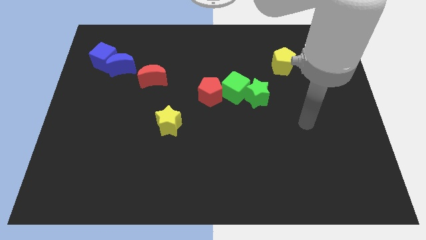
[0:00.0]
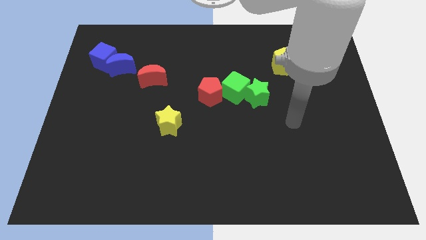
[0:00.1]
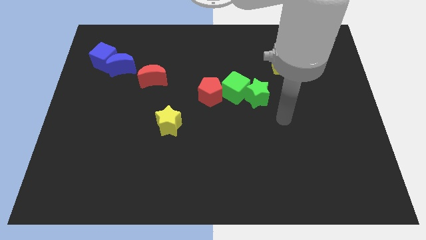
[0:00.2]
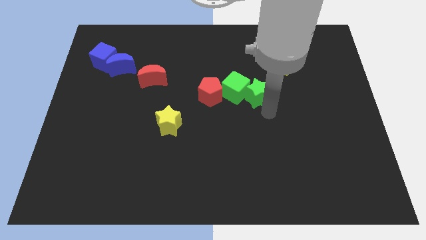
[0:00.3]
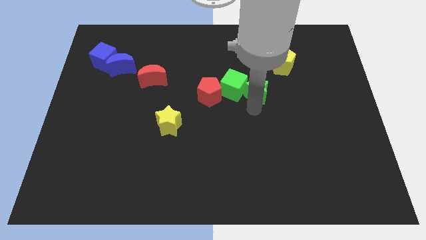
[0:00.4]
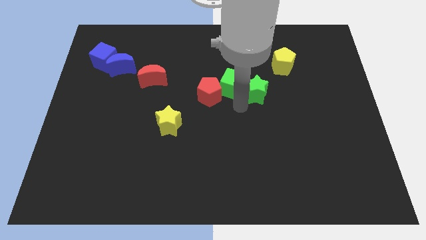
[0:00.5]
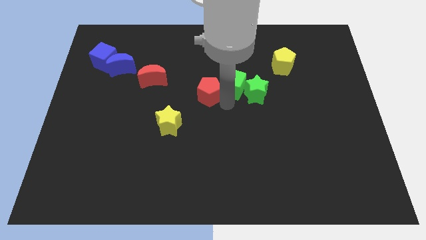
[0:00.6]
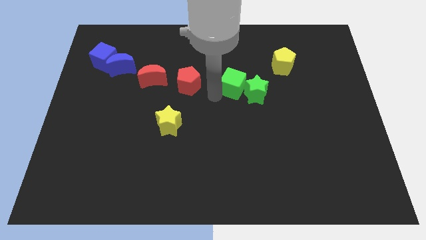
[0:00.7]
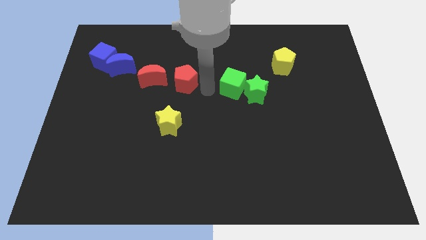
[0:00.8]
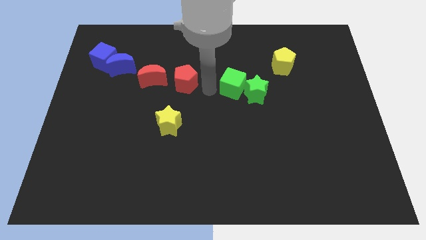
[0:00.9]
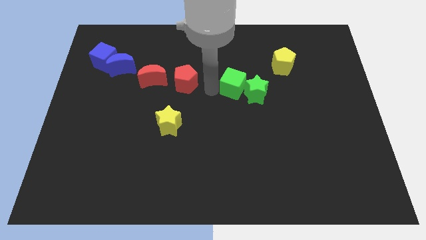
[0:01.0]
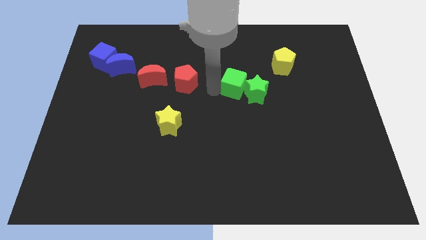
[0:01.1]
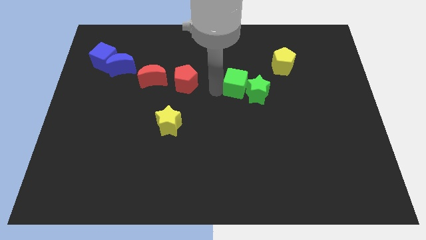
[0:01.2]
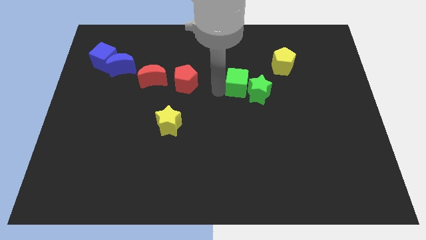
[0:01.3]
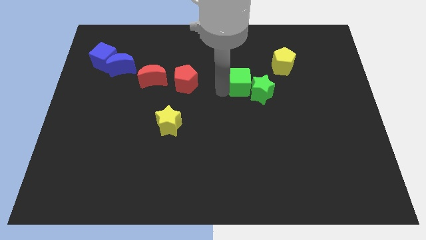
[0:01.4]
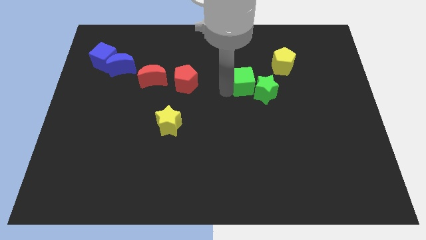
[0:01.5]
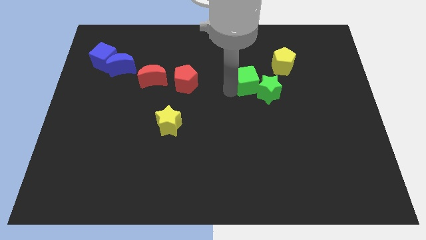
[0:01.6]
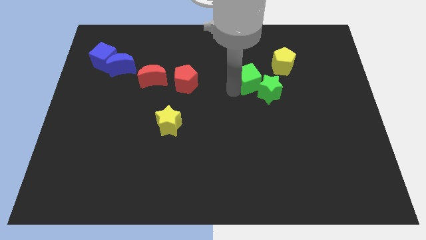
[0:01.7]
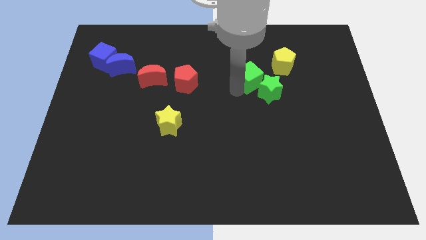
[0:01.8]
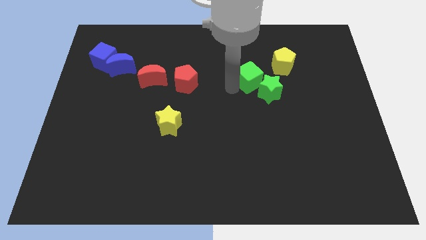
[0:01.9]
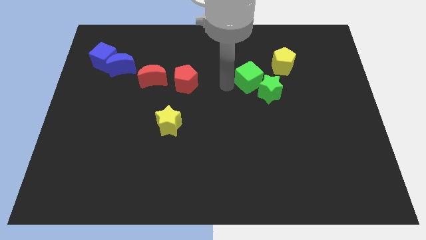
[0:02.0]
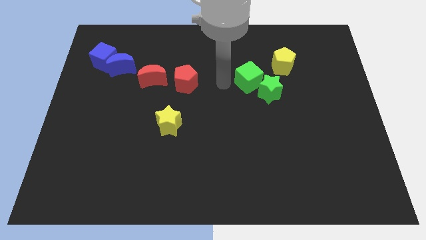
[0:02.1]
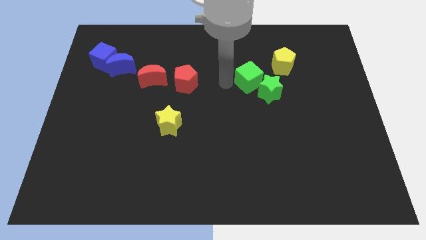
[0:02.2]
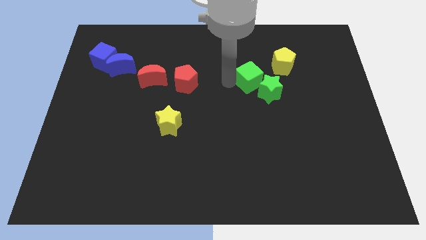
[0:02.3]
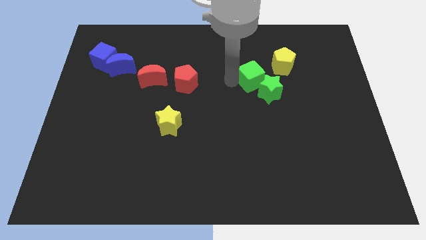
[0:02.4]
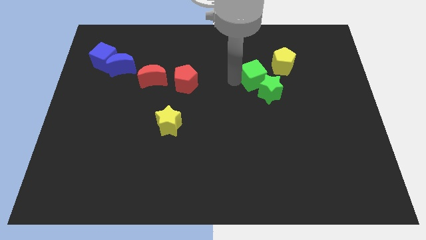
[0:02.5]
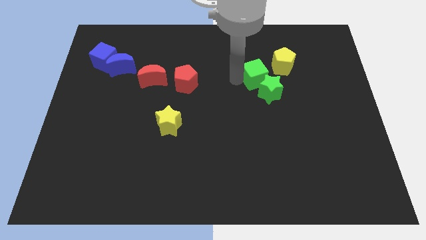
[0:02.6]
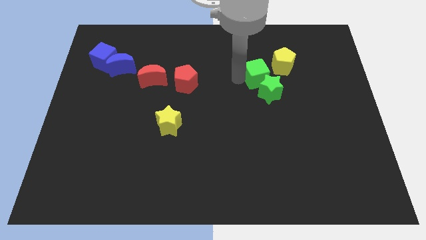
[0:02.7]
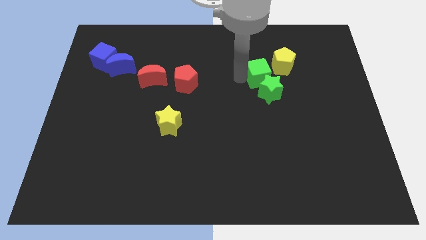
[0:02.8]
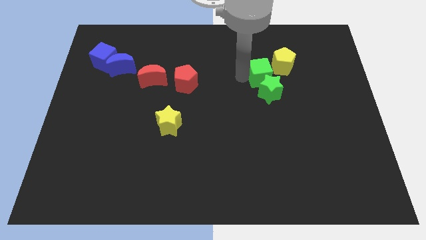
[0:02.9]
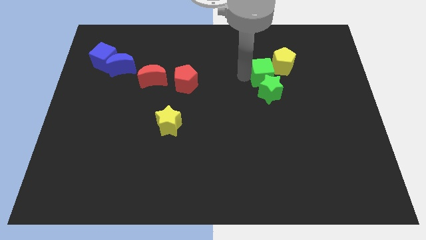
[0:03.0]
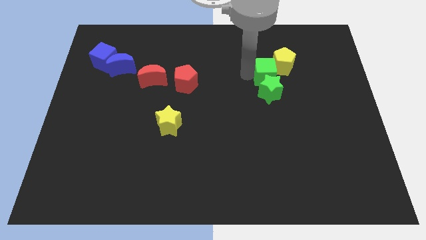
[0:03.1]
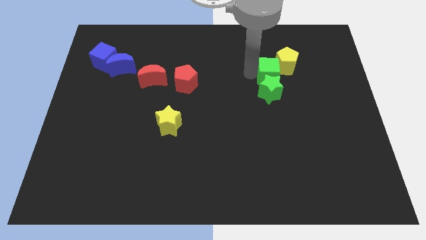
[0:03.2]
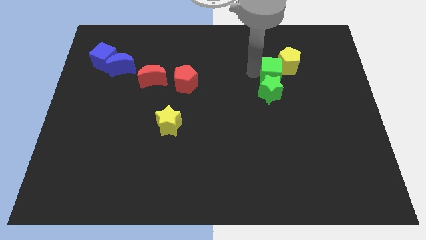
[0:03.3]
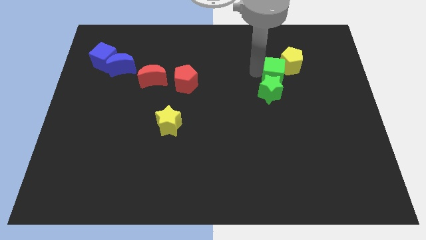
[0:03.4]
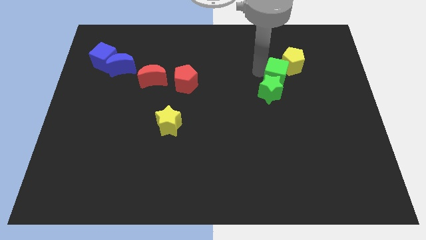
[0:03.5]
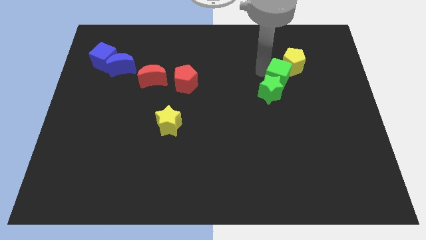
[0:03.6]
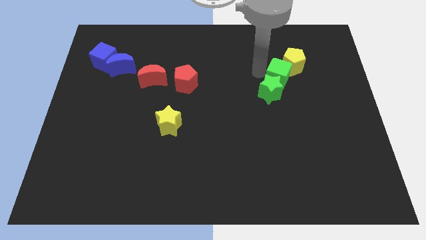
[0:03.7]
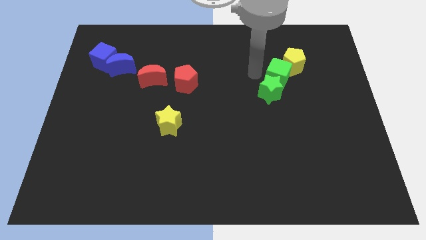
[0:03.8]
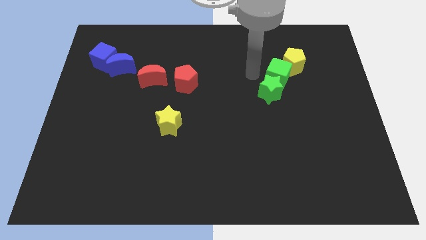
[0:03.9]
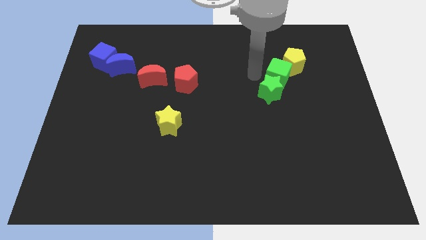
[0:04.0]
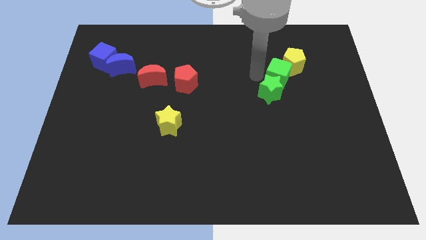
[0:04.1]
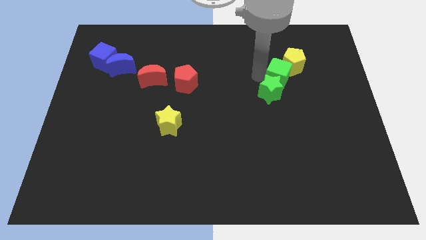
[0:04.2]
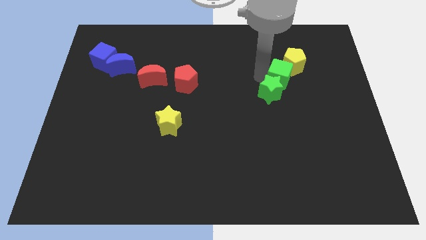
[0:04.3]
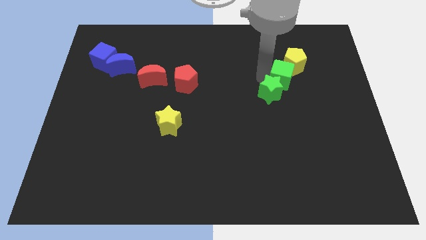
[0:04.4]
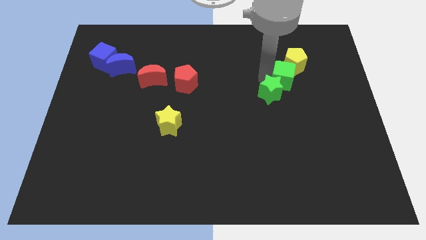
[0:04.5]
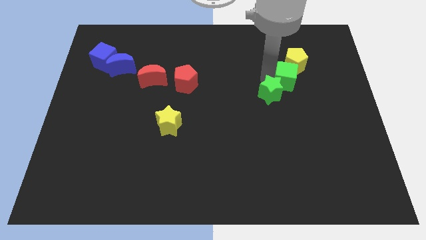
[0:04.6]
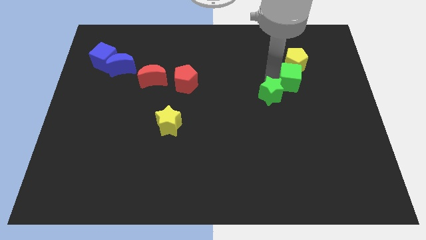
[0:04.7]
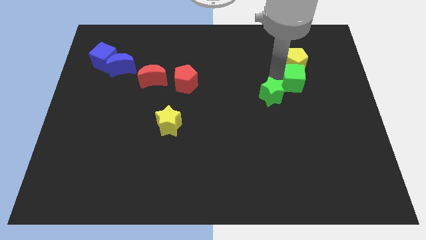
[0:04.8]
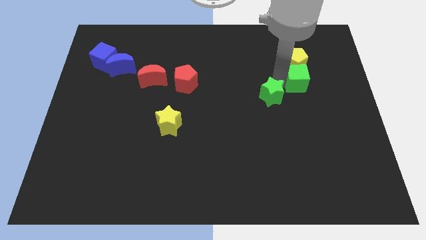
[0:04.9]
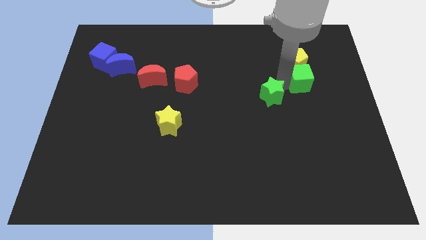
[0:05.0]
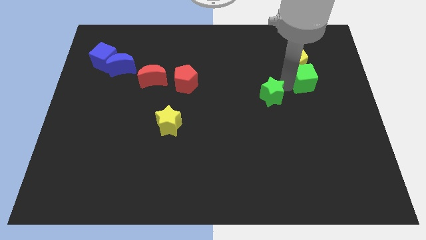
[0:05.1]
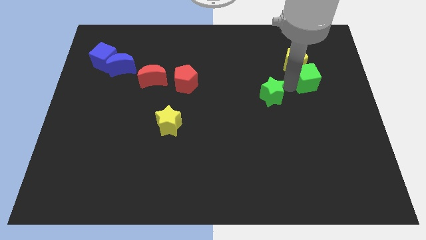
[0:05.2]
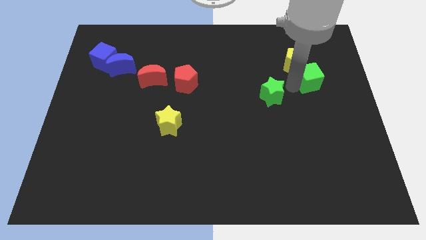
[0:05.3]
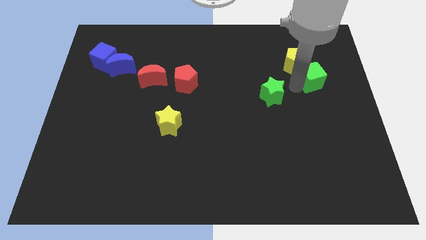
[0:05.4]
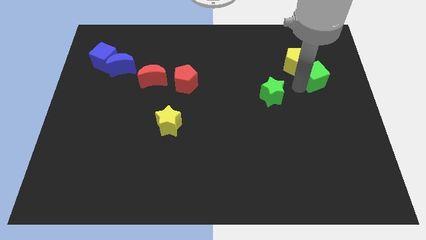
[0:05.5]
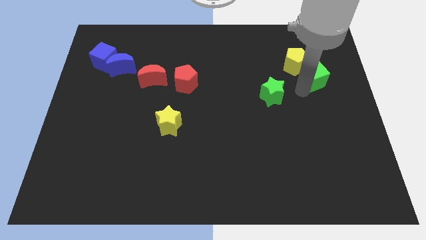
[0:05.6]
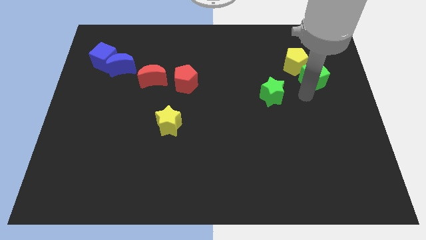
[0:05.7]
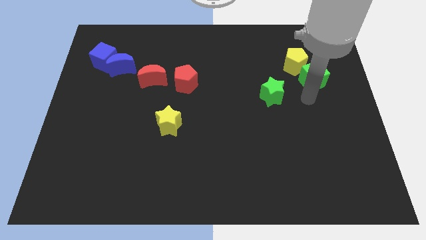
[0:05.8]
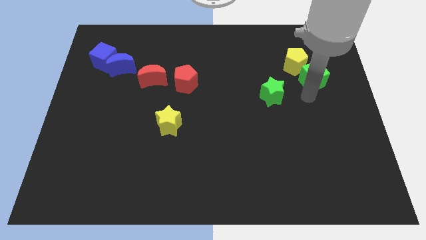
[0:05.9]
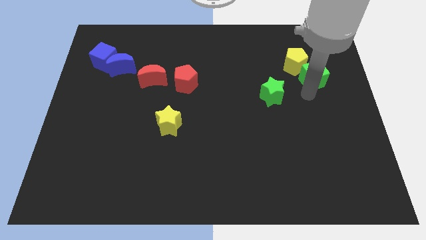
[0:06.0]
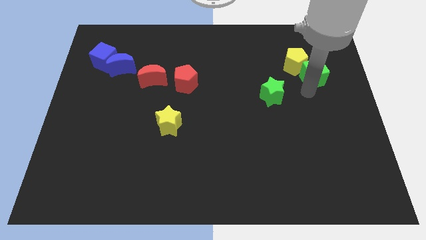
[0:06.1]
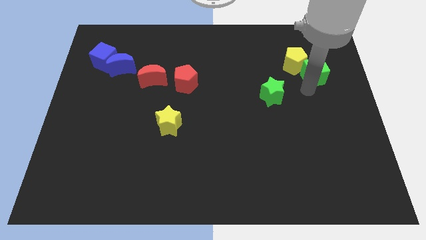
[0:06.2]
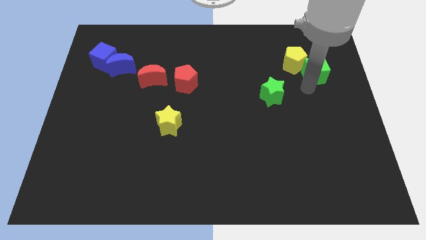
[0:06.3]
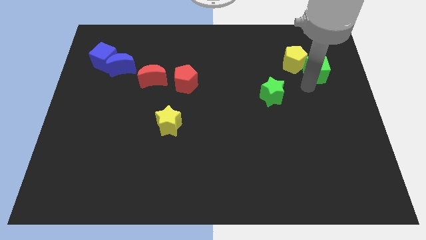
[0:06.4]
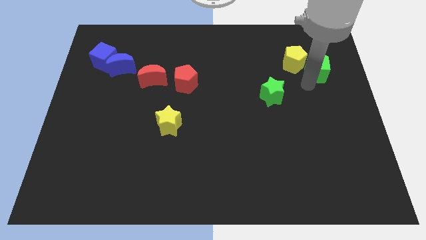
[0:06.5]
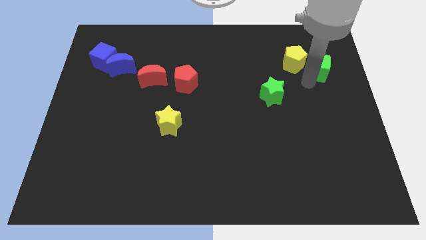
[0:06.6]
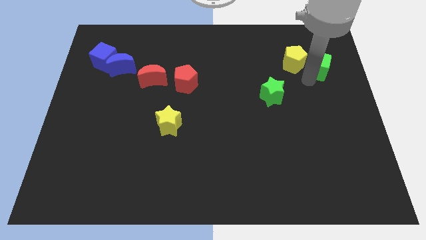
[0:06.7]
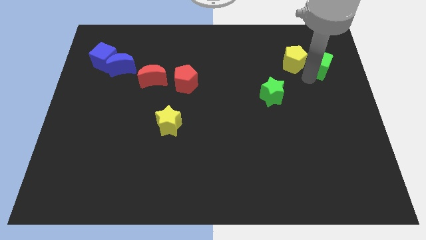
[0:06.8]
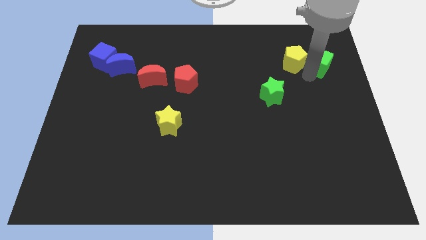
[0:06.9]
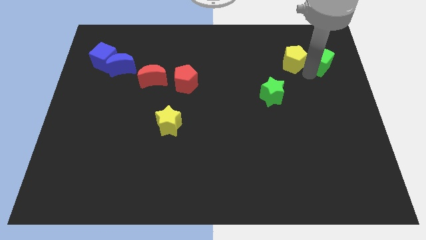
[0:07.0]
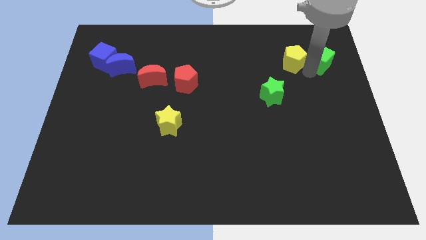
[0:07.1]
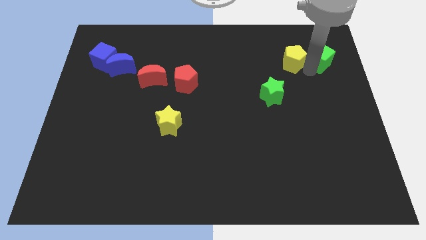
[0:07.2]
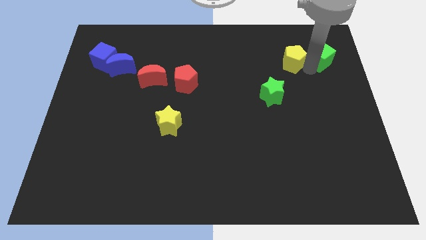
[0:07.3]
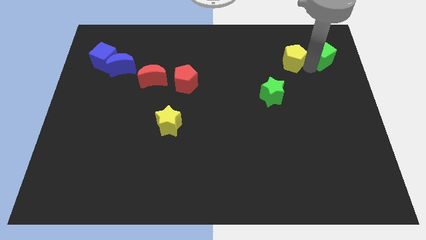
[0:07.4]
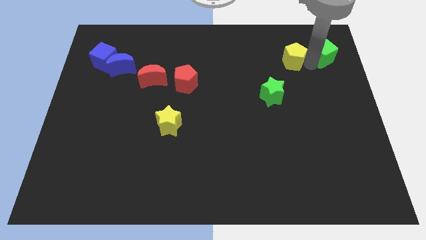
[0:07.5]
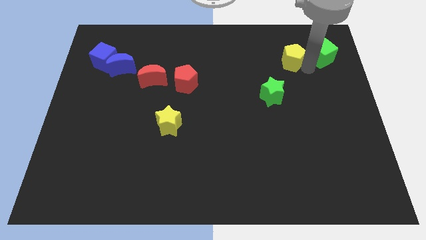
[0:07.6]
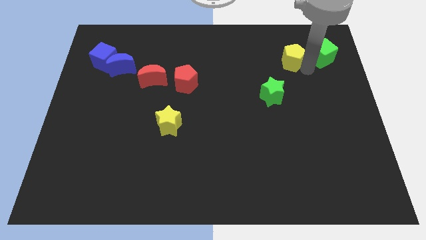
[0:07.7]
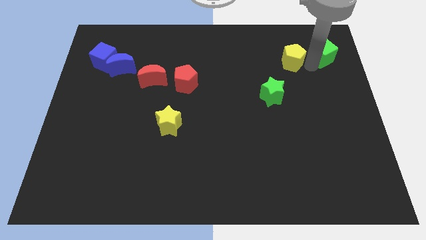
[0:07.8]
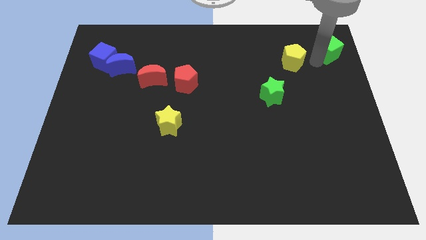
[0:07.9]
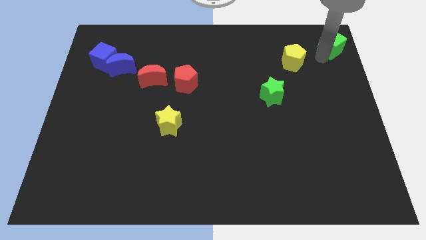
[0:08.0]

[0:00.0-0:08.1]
push the green cube to the upper right corner
